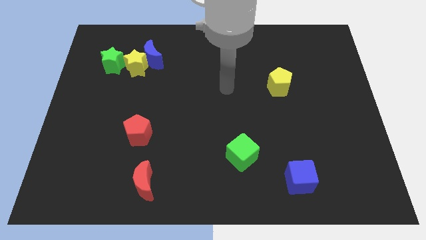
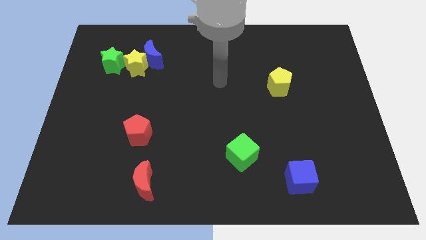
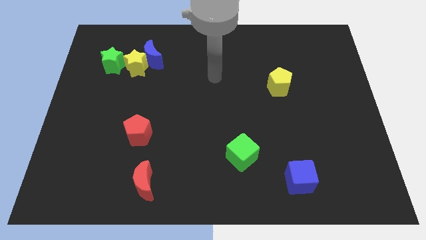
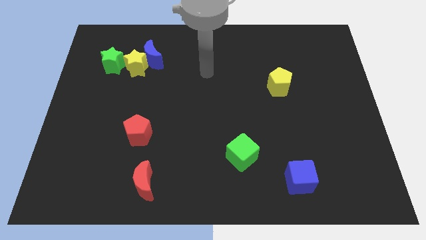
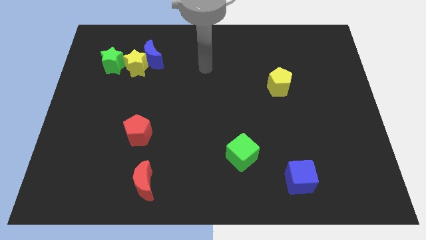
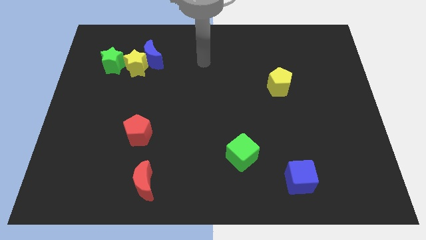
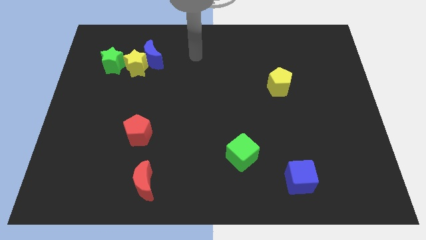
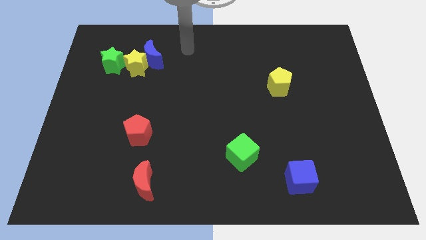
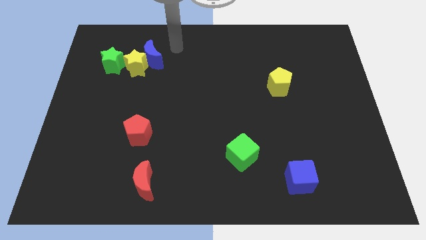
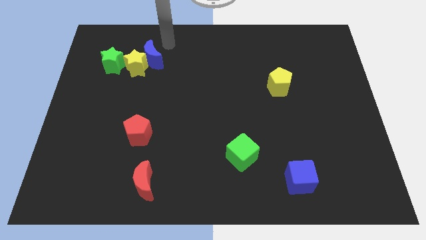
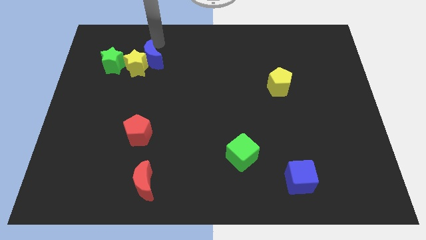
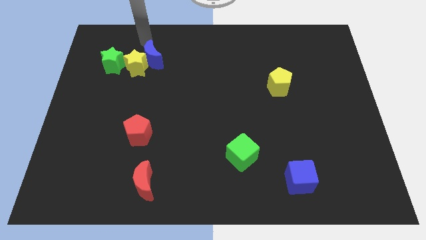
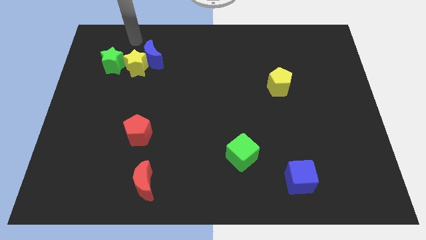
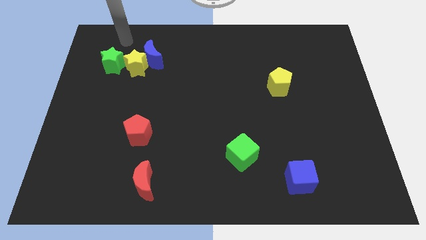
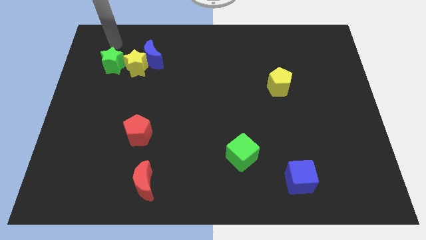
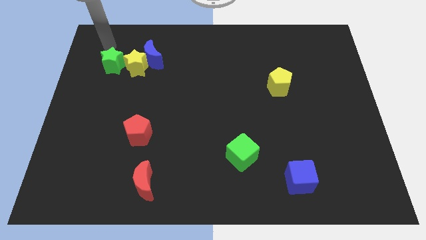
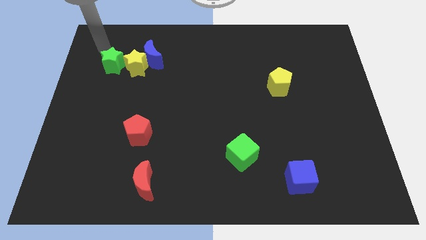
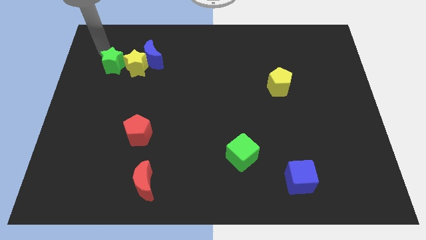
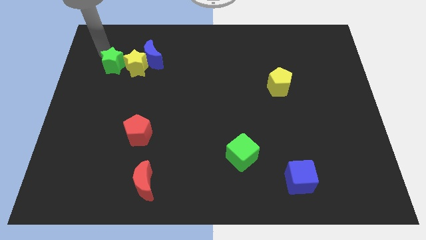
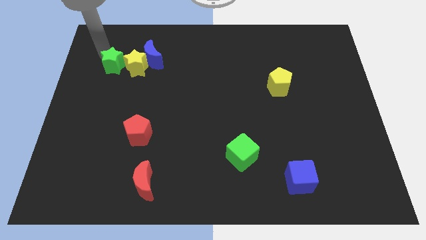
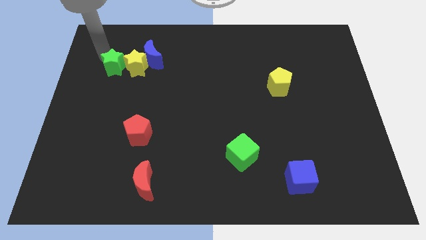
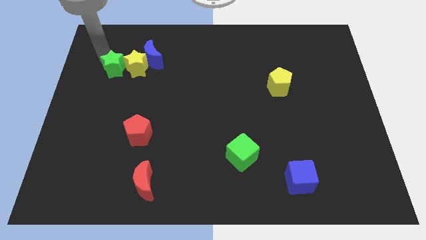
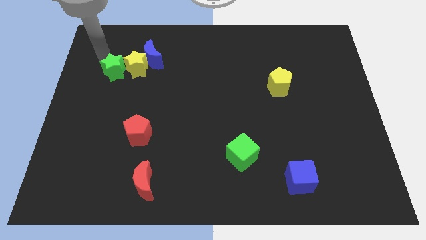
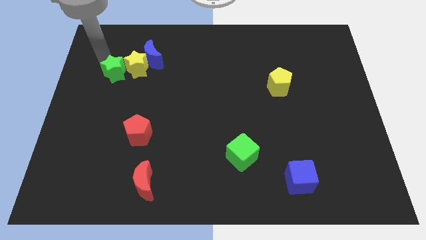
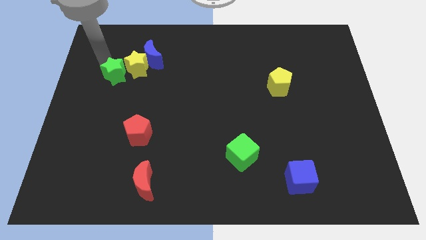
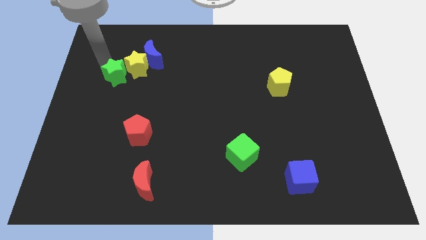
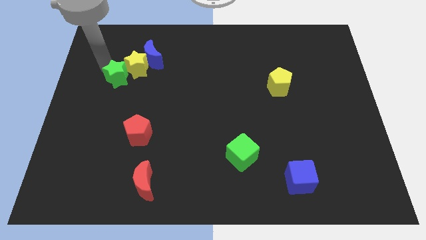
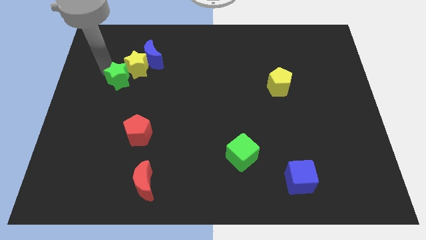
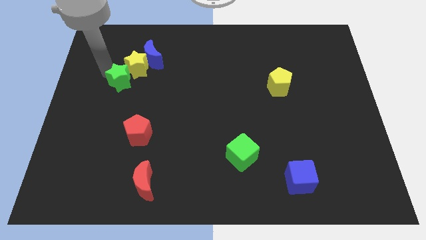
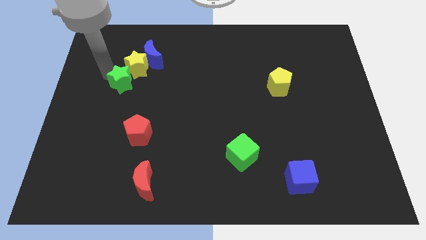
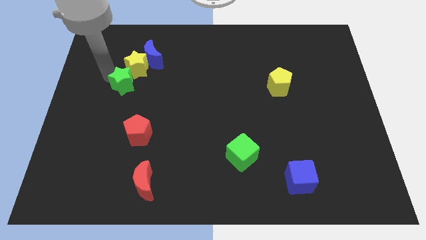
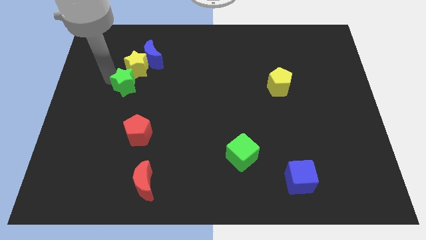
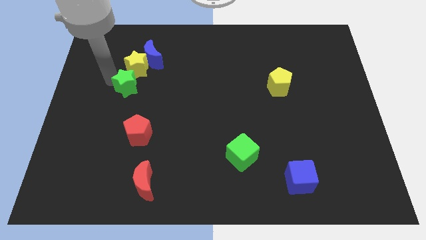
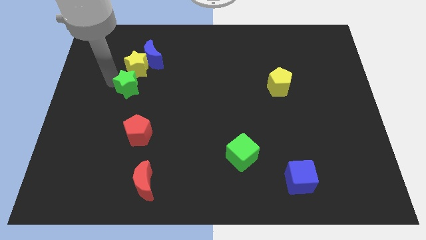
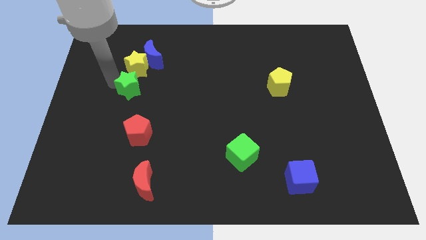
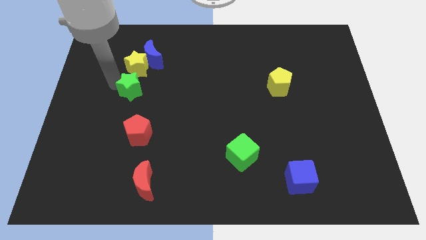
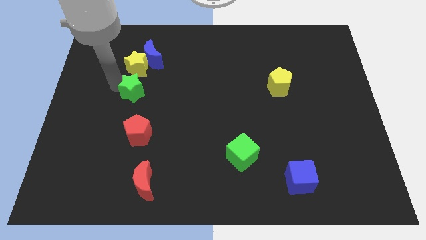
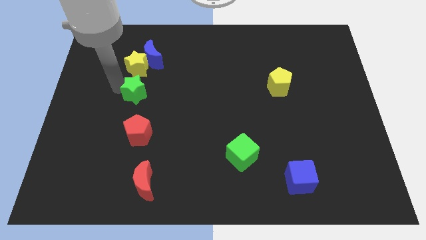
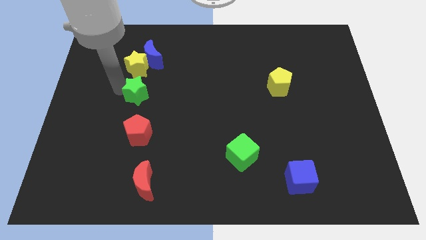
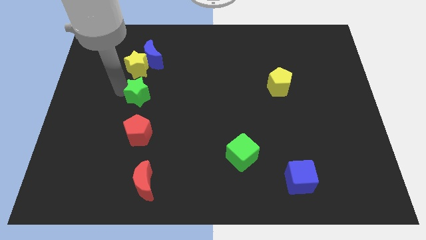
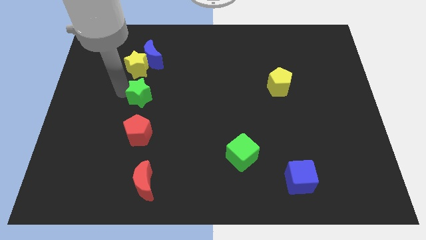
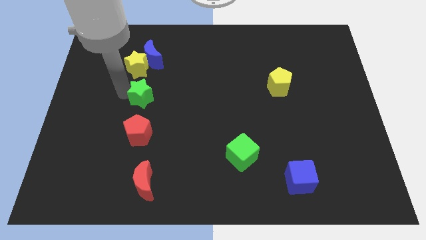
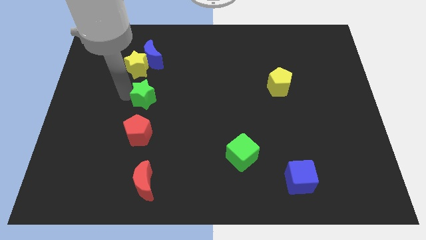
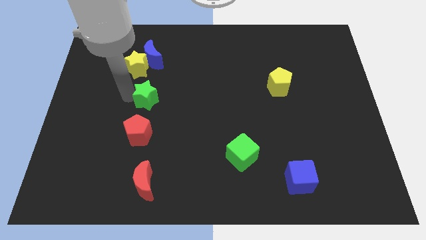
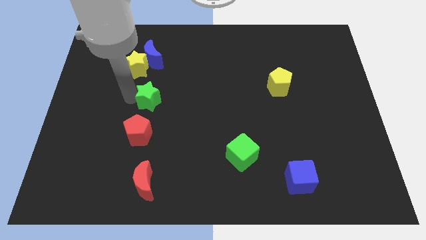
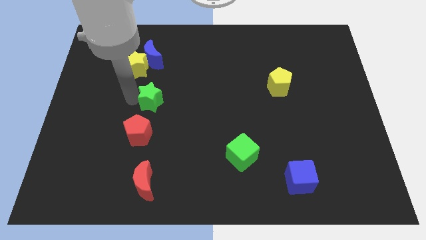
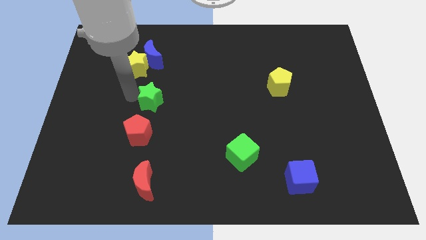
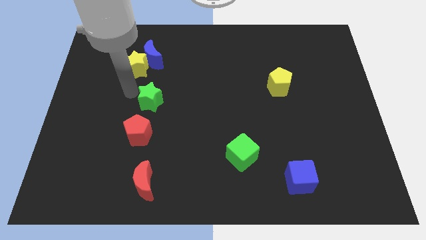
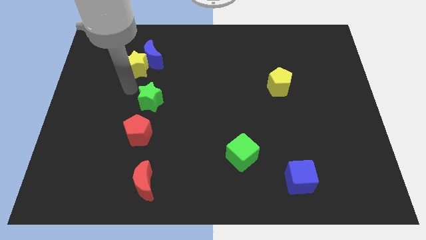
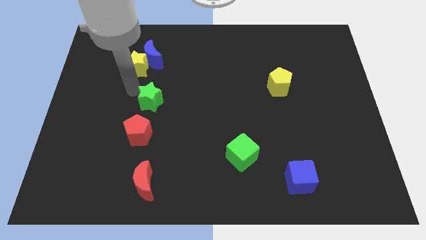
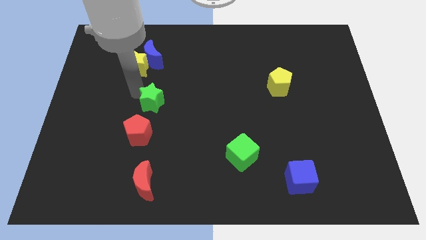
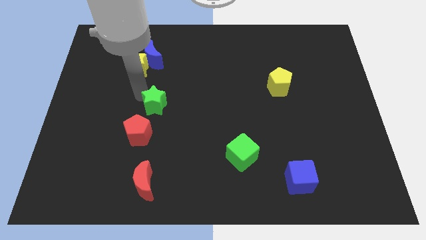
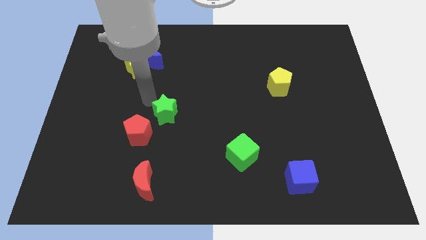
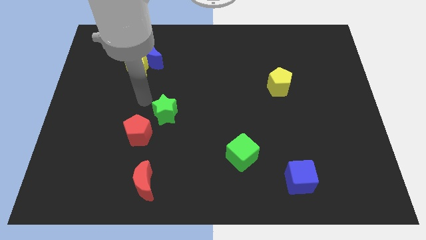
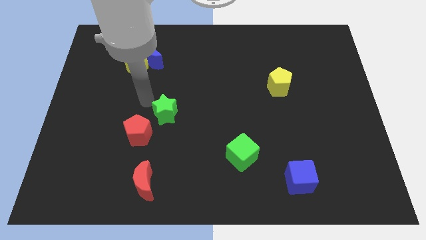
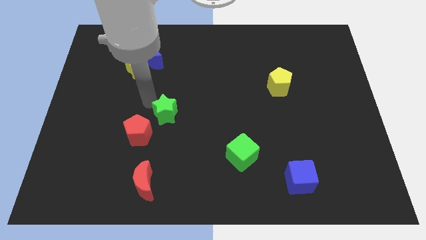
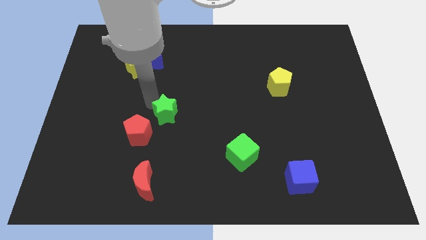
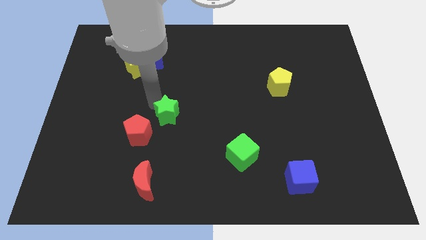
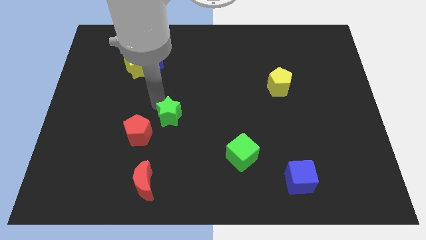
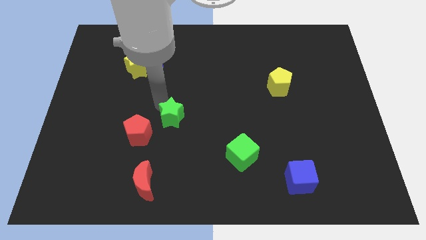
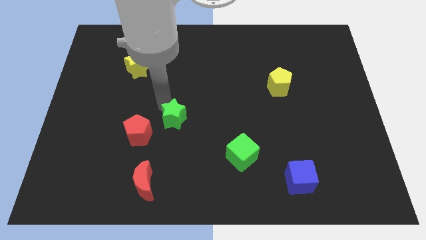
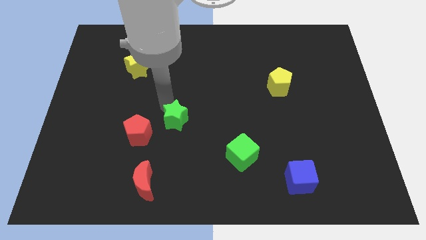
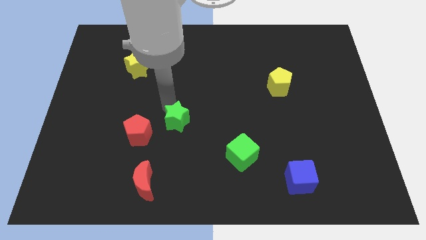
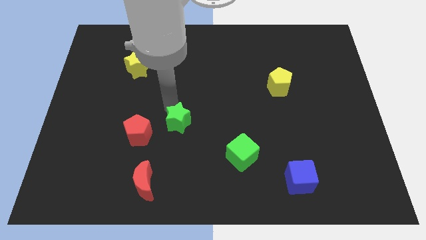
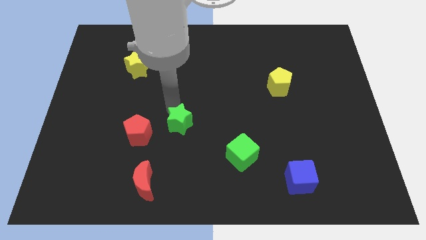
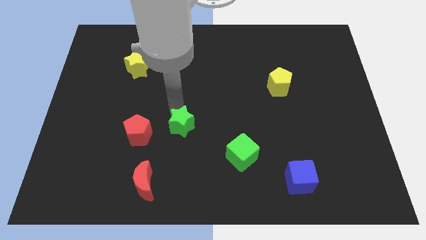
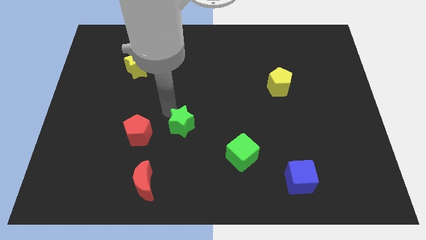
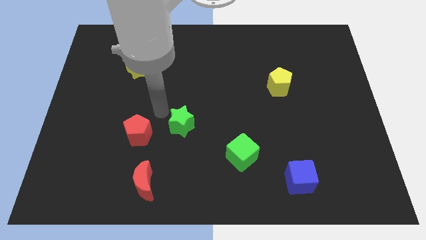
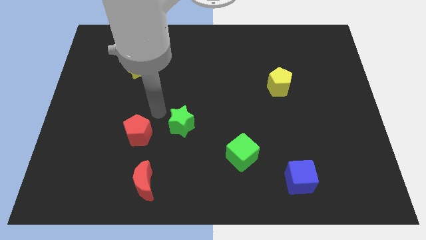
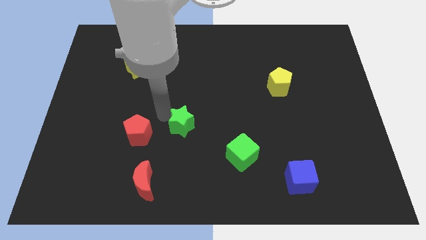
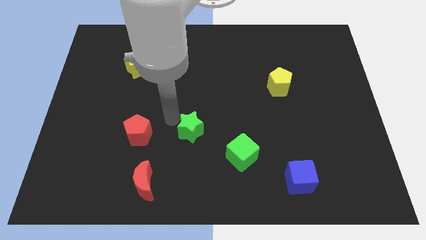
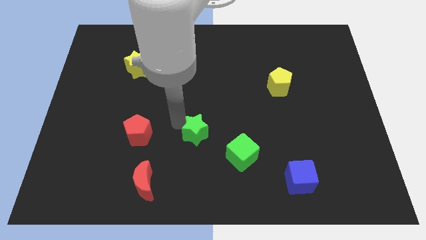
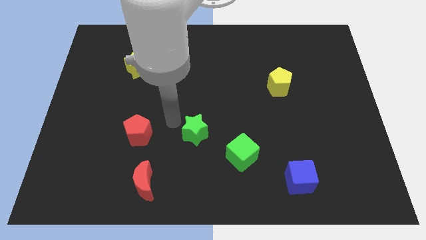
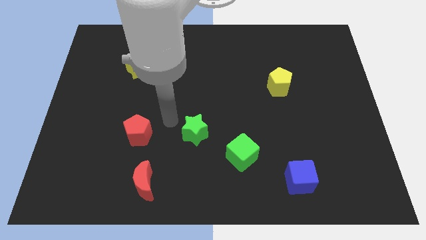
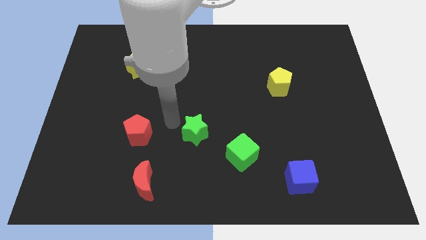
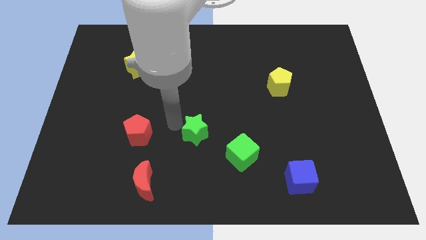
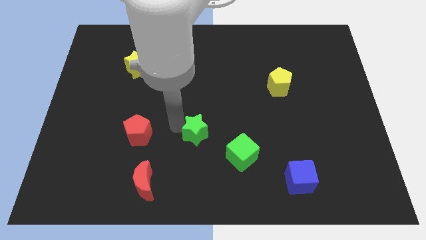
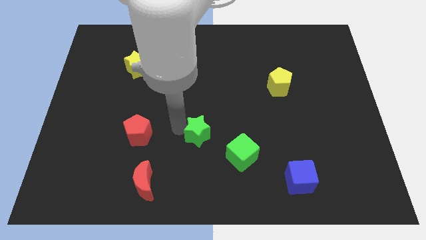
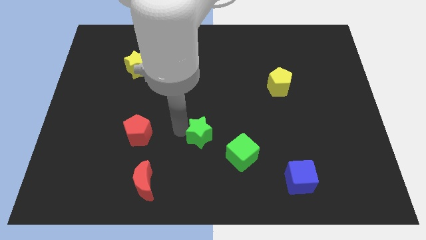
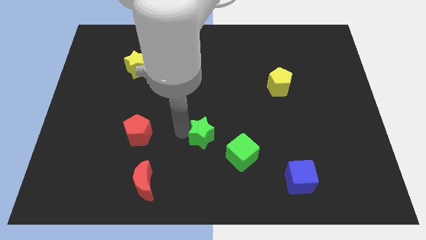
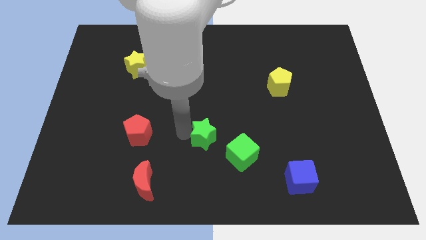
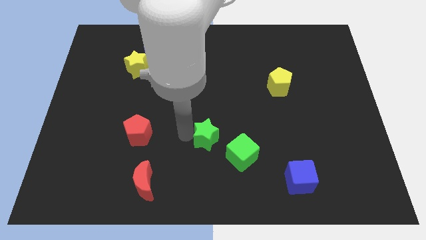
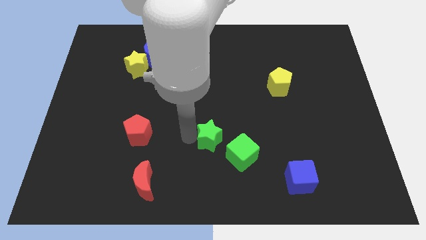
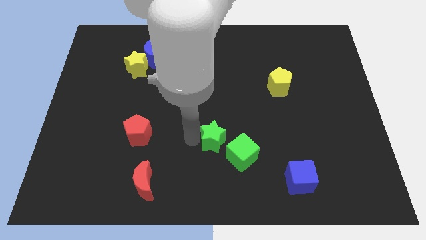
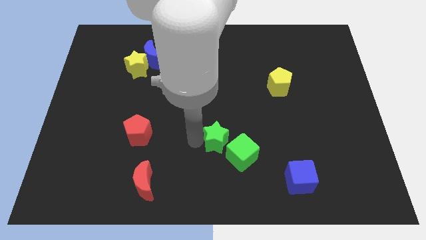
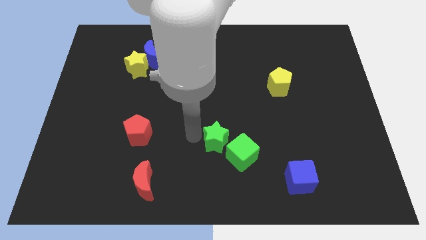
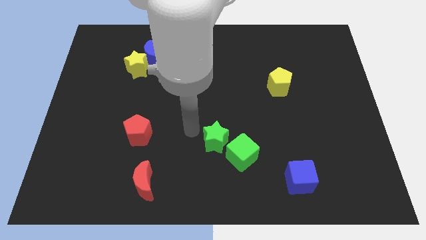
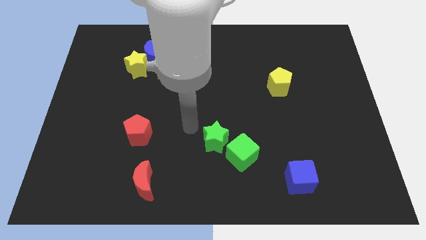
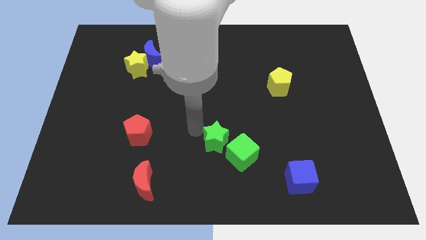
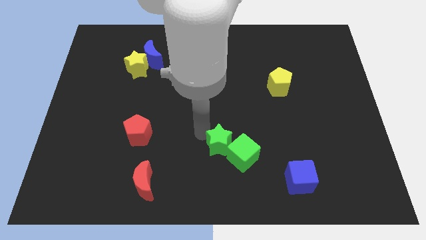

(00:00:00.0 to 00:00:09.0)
put the green star close to the green cube
